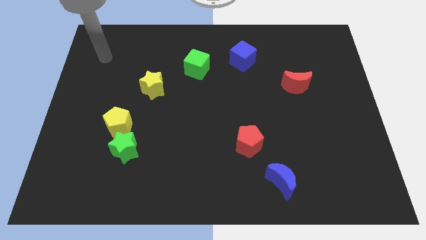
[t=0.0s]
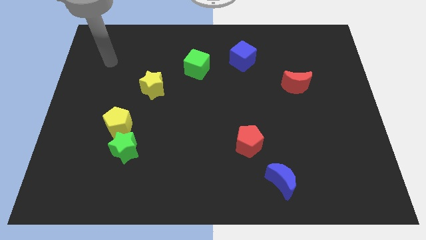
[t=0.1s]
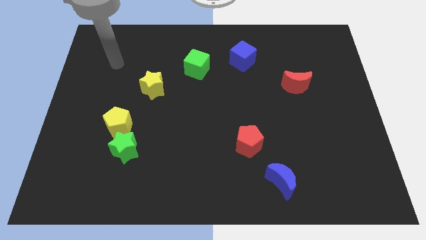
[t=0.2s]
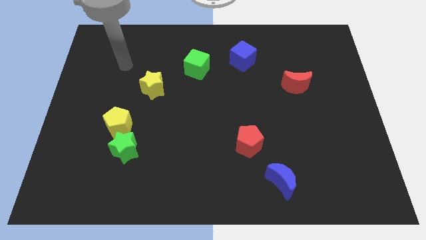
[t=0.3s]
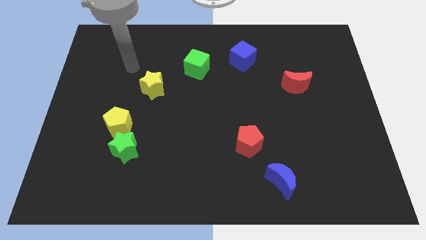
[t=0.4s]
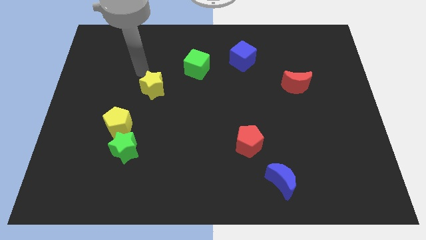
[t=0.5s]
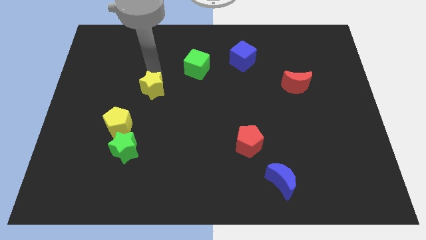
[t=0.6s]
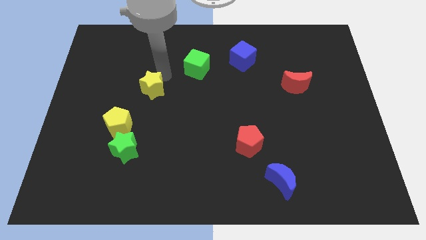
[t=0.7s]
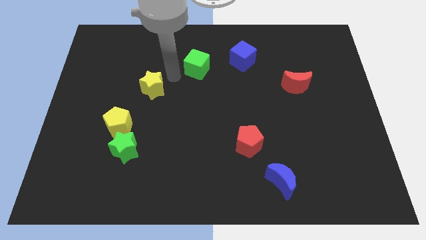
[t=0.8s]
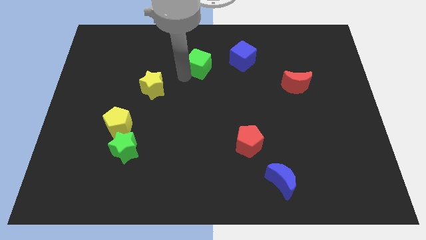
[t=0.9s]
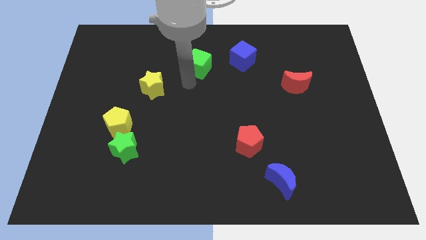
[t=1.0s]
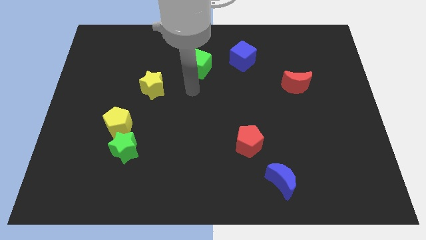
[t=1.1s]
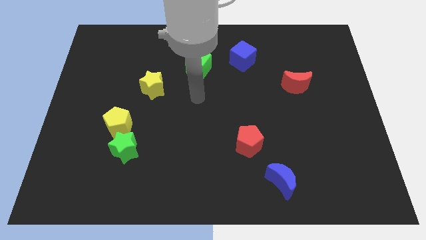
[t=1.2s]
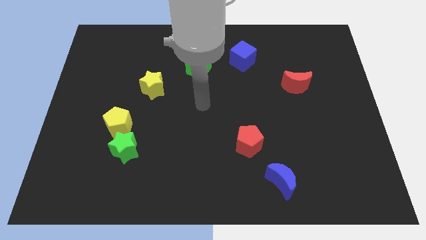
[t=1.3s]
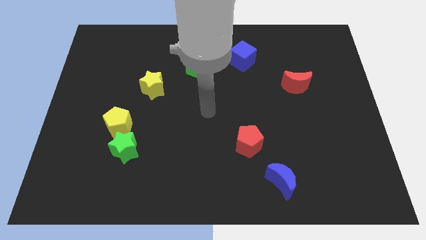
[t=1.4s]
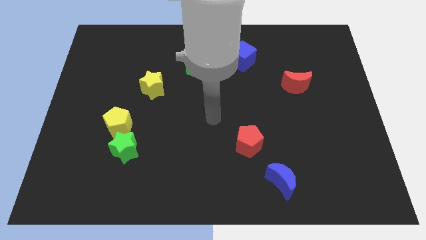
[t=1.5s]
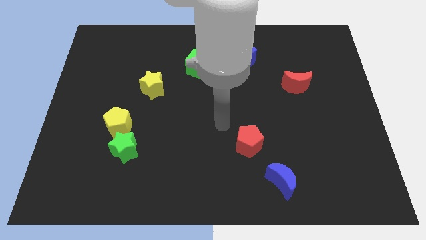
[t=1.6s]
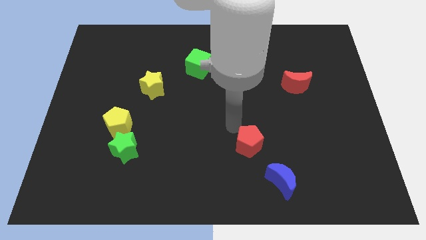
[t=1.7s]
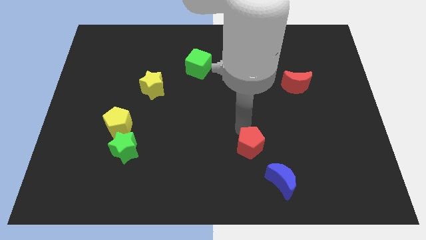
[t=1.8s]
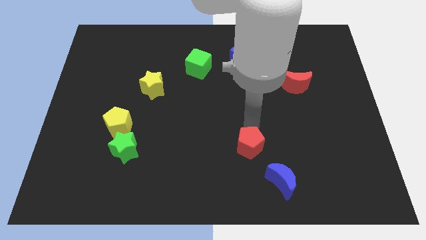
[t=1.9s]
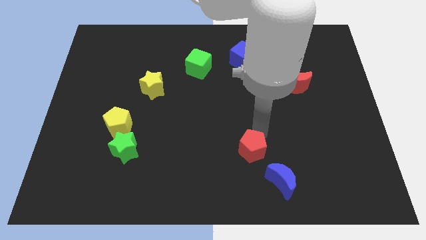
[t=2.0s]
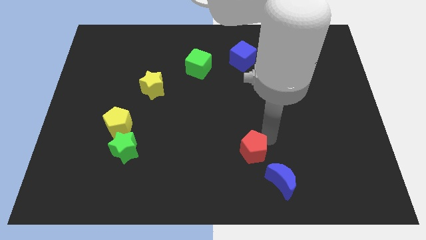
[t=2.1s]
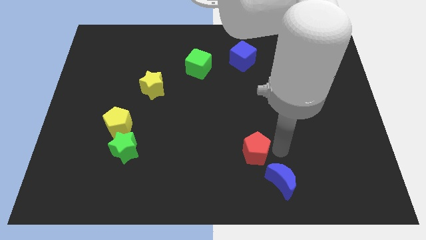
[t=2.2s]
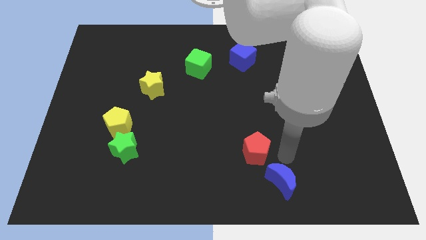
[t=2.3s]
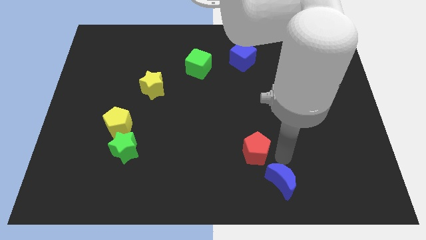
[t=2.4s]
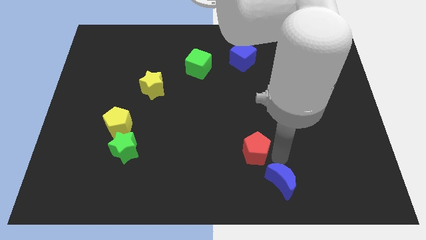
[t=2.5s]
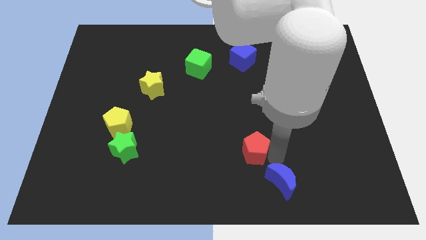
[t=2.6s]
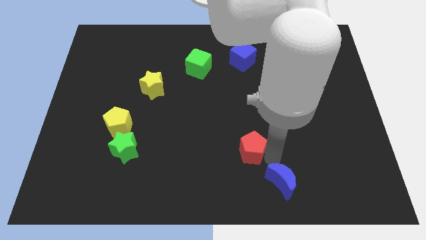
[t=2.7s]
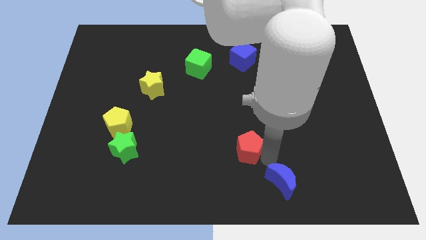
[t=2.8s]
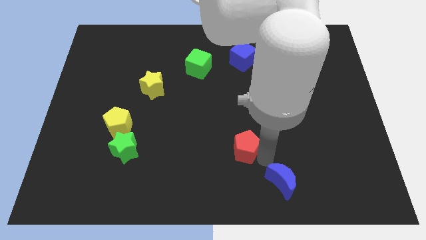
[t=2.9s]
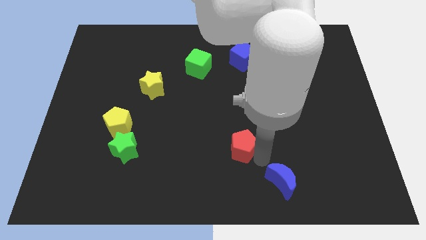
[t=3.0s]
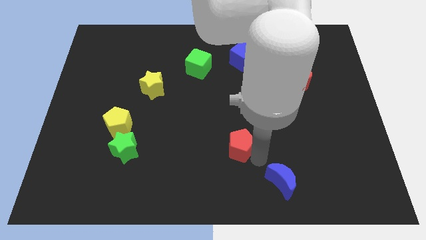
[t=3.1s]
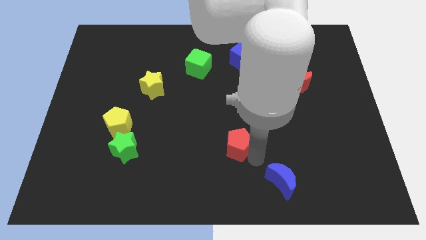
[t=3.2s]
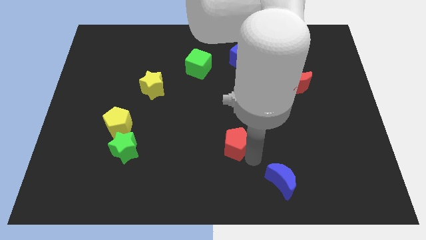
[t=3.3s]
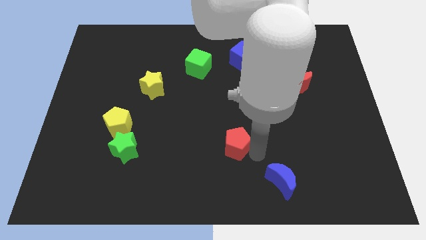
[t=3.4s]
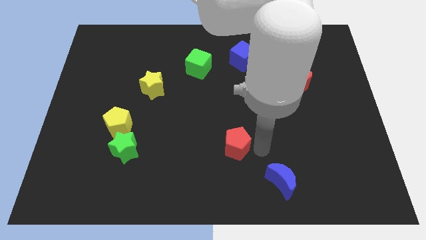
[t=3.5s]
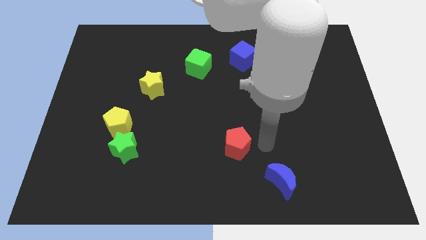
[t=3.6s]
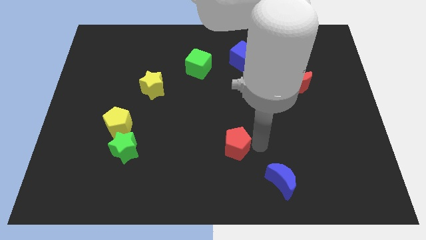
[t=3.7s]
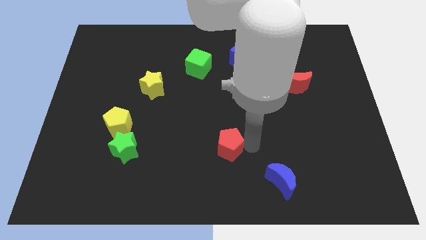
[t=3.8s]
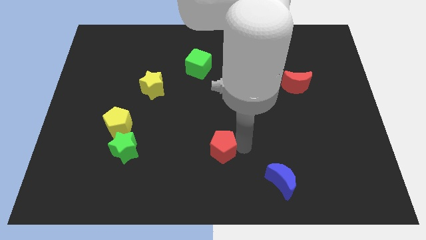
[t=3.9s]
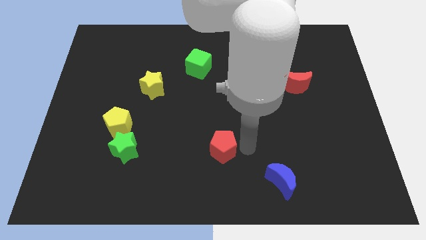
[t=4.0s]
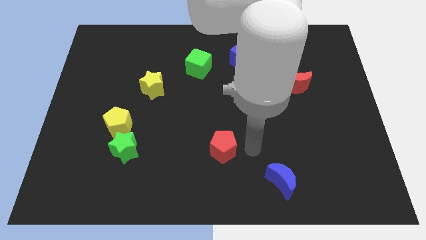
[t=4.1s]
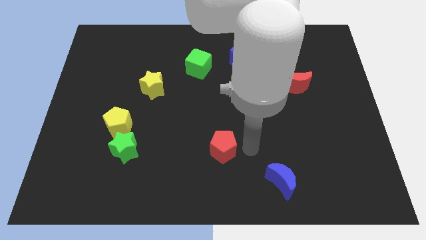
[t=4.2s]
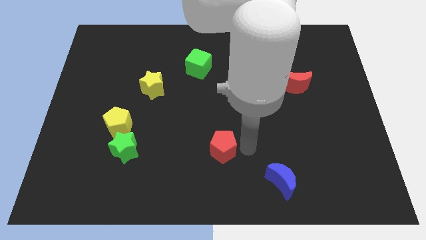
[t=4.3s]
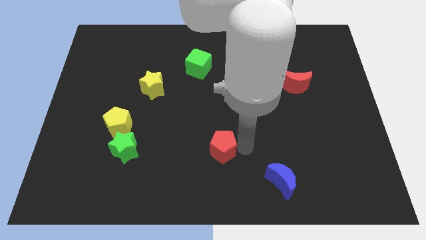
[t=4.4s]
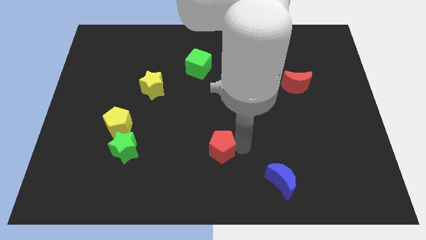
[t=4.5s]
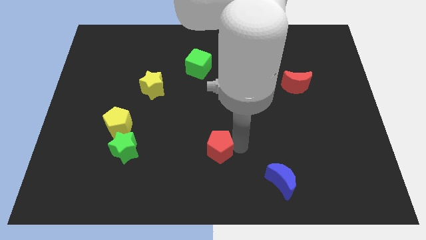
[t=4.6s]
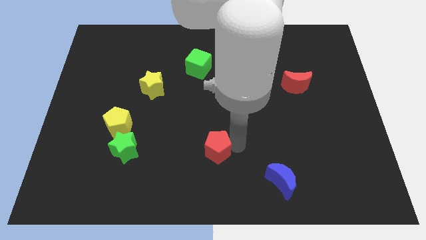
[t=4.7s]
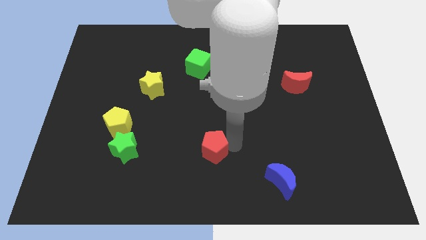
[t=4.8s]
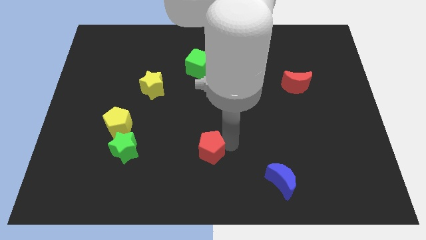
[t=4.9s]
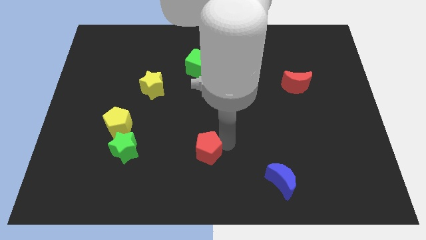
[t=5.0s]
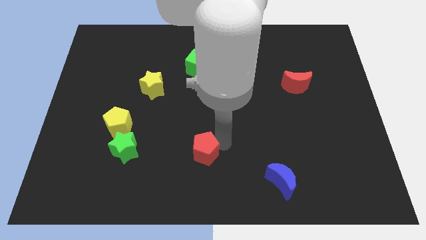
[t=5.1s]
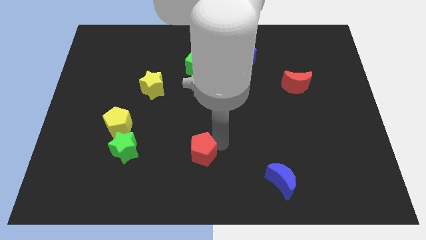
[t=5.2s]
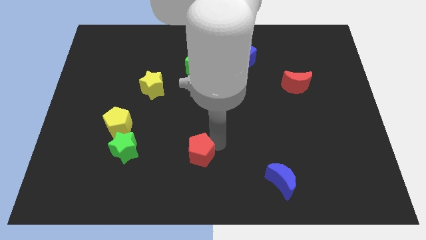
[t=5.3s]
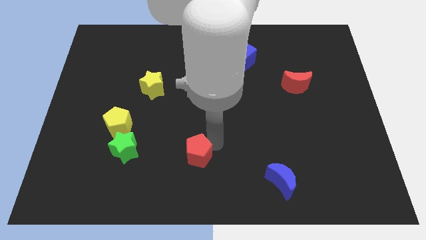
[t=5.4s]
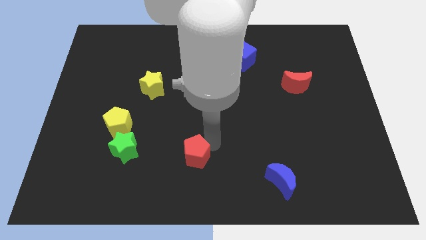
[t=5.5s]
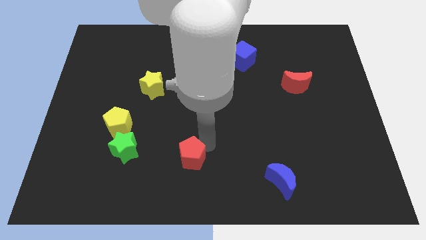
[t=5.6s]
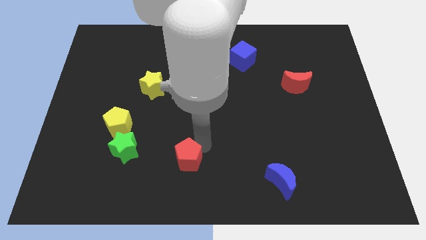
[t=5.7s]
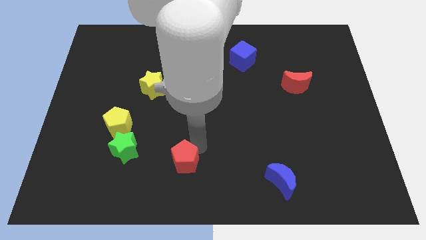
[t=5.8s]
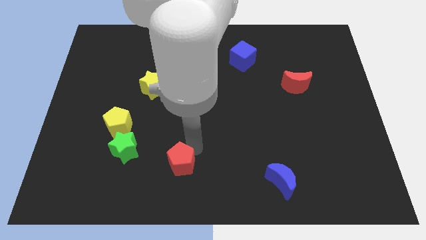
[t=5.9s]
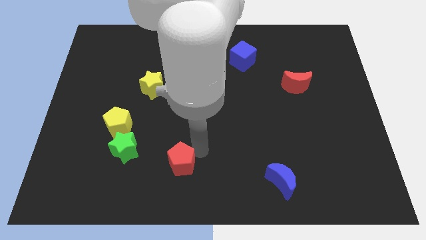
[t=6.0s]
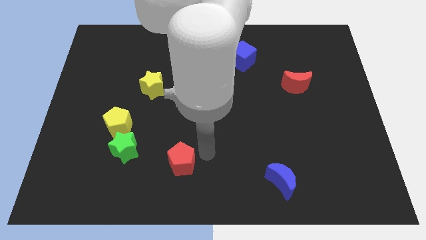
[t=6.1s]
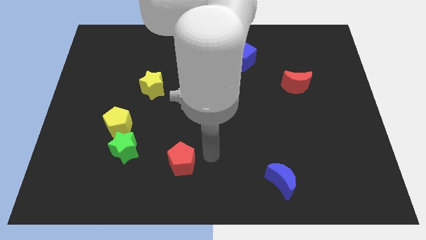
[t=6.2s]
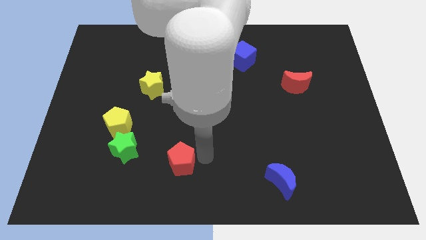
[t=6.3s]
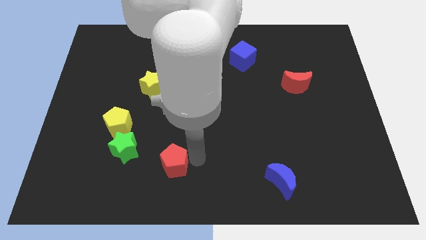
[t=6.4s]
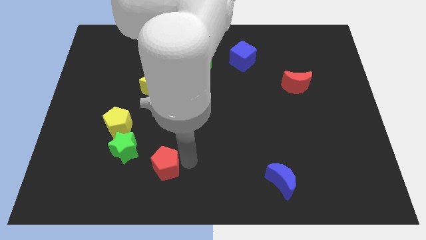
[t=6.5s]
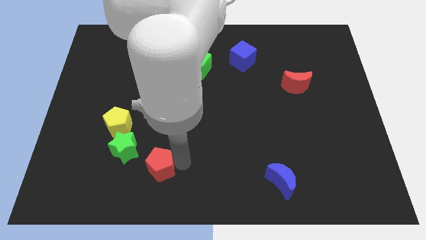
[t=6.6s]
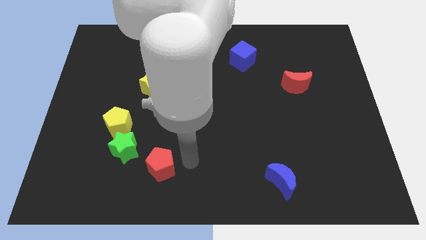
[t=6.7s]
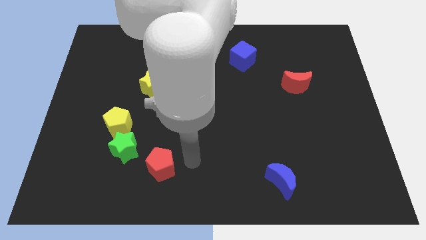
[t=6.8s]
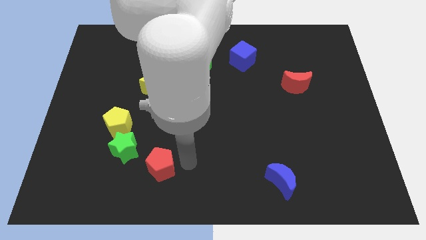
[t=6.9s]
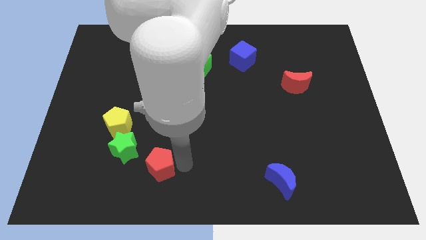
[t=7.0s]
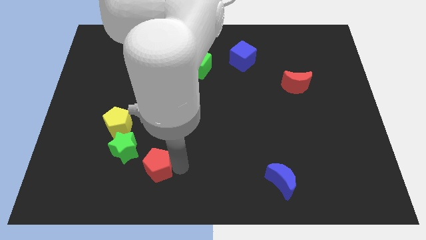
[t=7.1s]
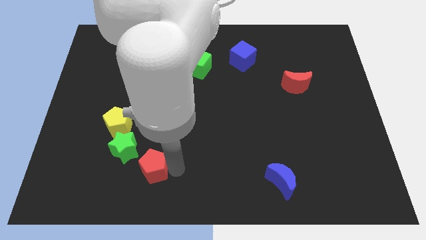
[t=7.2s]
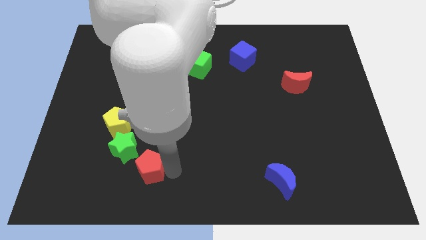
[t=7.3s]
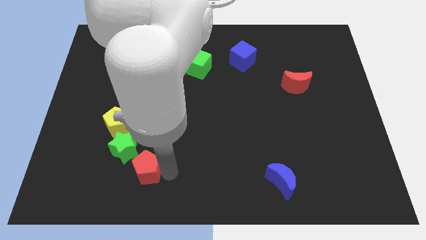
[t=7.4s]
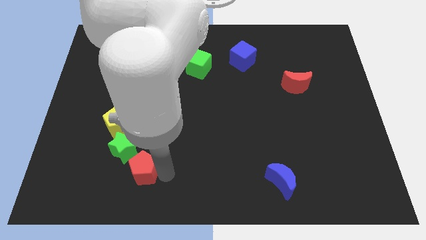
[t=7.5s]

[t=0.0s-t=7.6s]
move the red pentagon to the left
